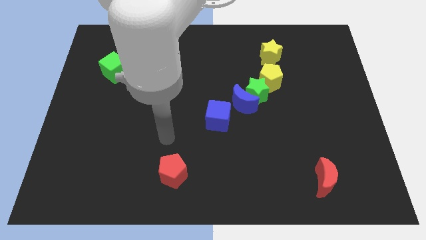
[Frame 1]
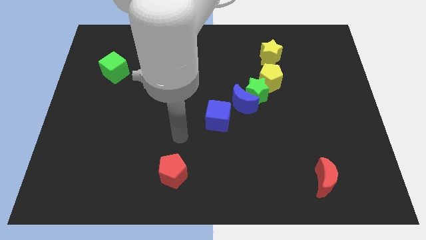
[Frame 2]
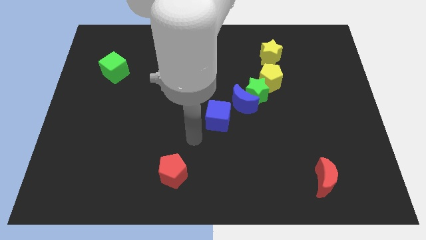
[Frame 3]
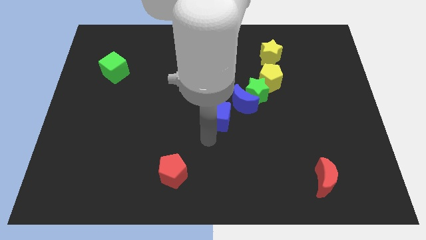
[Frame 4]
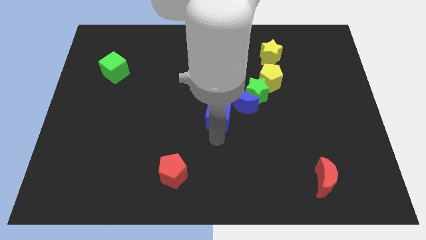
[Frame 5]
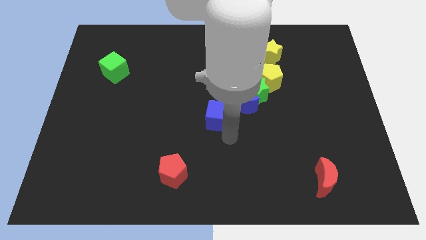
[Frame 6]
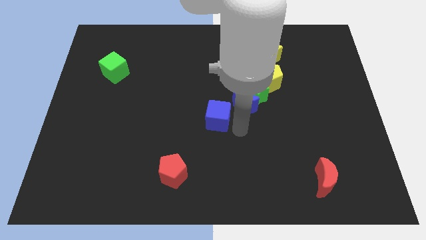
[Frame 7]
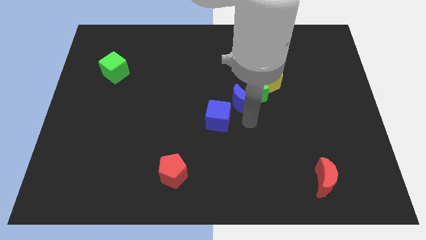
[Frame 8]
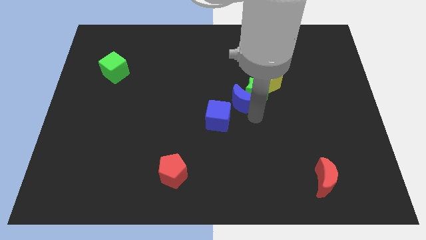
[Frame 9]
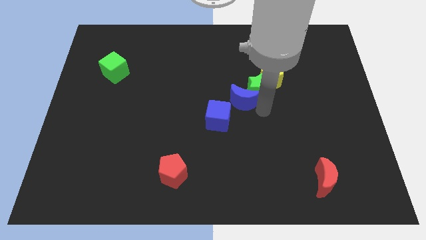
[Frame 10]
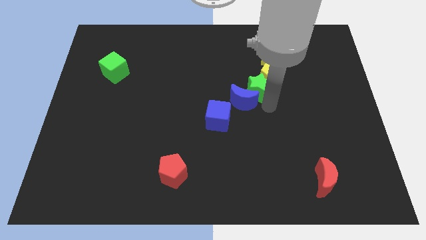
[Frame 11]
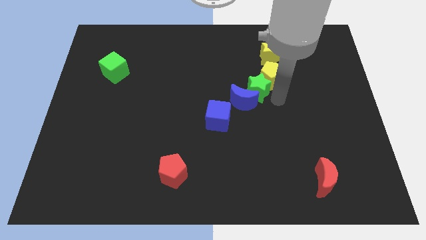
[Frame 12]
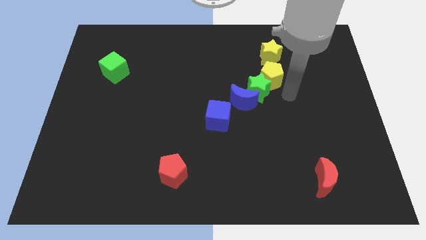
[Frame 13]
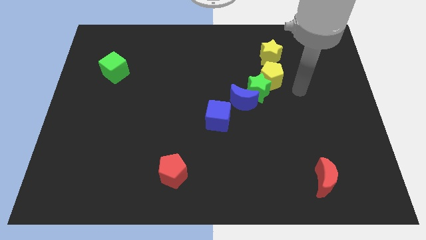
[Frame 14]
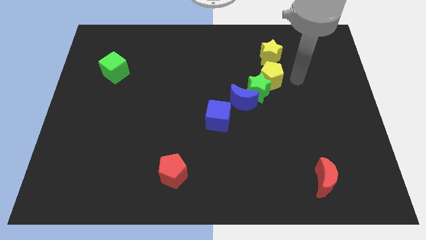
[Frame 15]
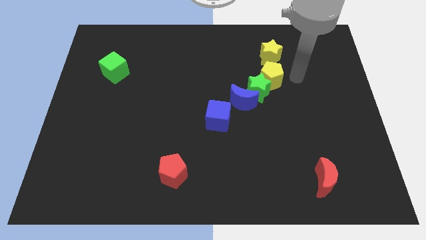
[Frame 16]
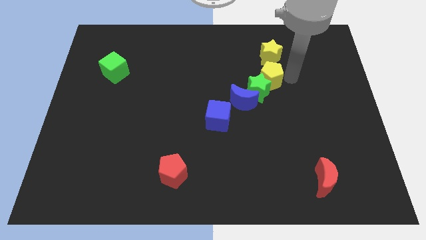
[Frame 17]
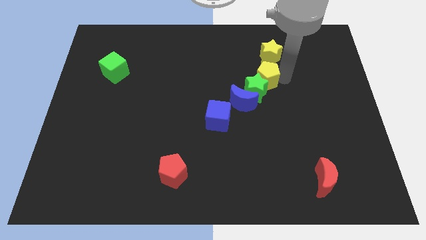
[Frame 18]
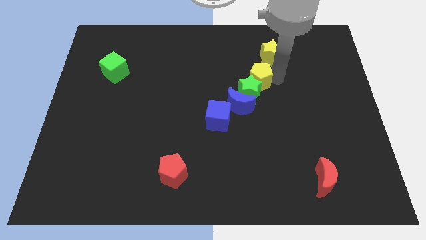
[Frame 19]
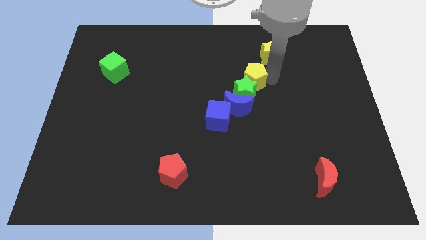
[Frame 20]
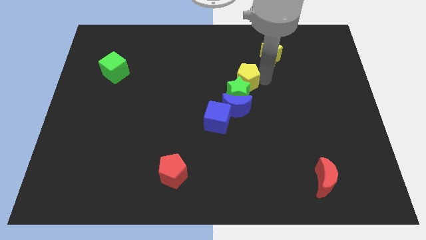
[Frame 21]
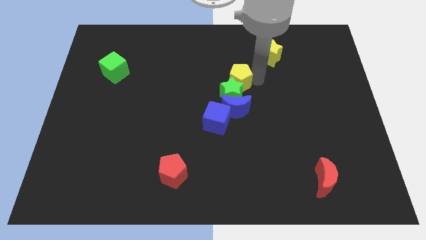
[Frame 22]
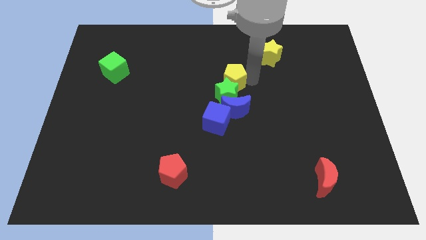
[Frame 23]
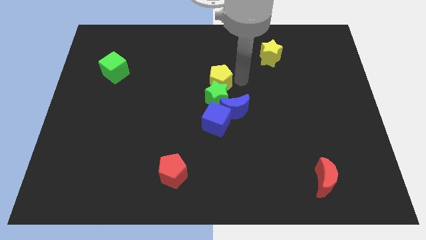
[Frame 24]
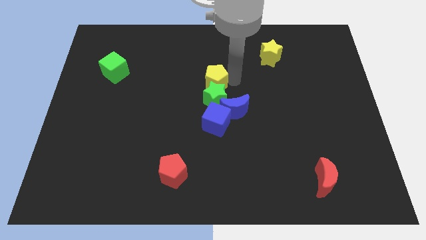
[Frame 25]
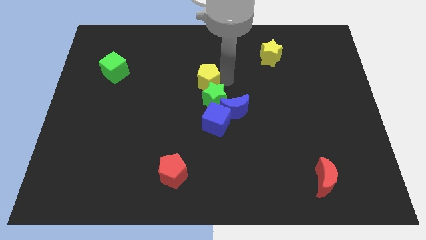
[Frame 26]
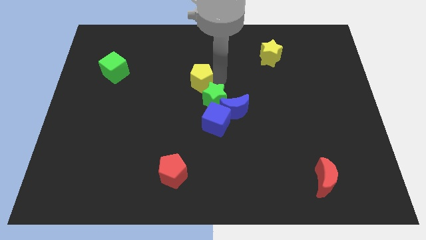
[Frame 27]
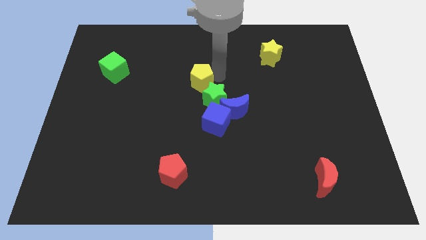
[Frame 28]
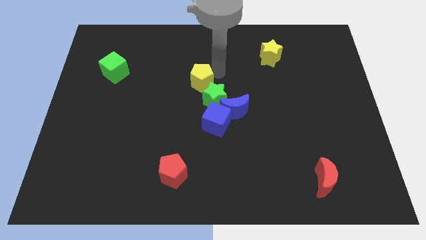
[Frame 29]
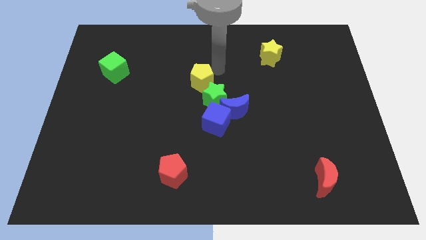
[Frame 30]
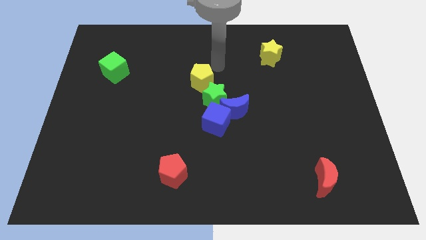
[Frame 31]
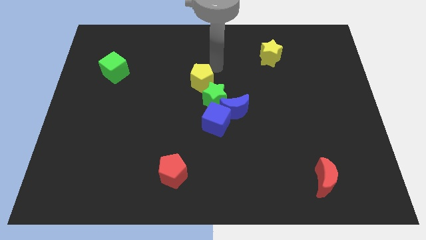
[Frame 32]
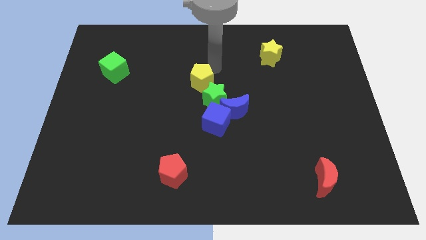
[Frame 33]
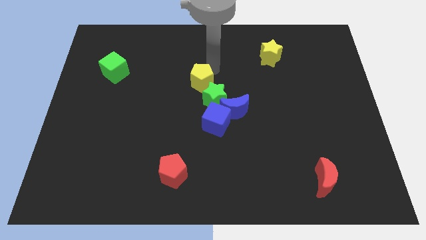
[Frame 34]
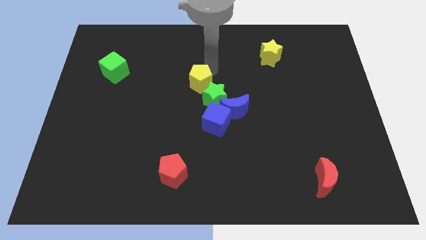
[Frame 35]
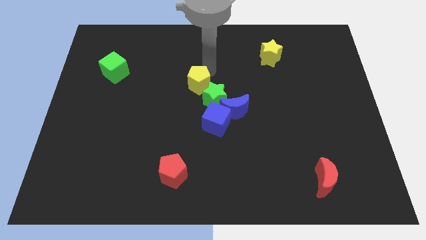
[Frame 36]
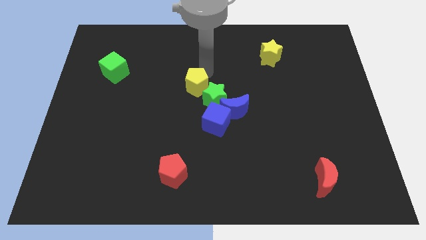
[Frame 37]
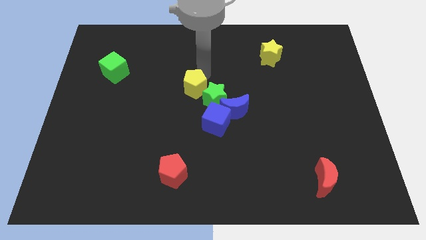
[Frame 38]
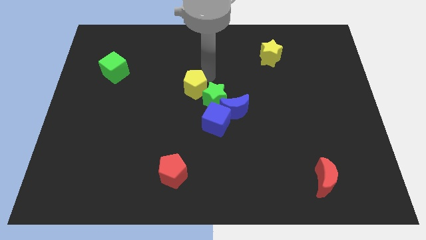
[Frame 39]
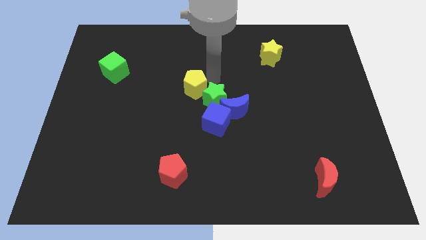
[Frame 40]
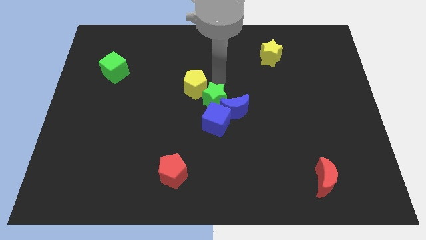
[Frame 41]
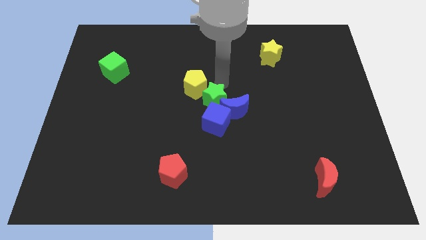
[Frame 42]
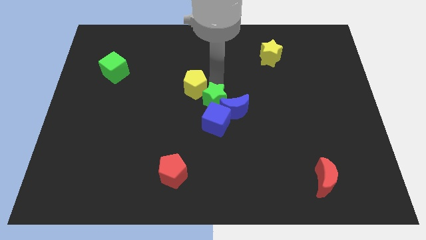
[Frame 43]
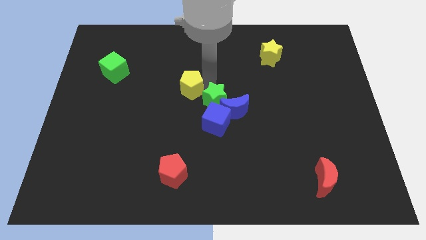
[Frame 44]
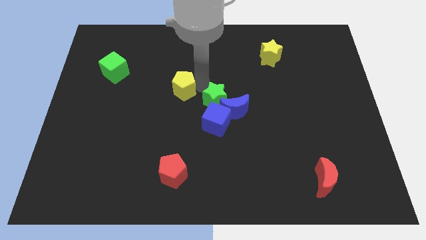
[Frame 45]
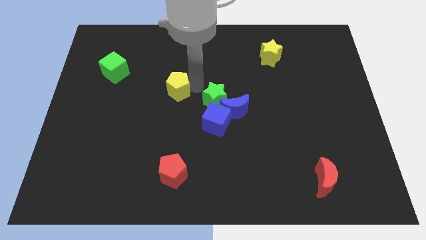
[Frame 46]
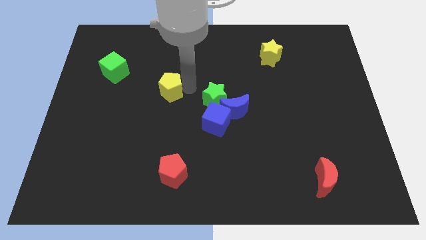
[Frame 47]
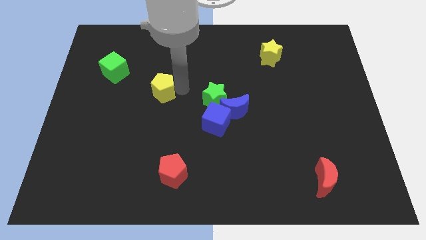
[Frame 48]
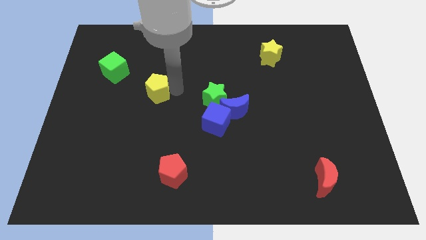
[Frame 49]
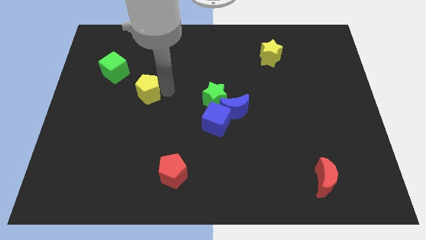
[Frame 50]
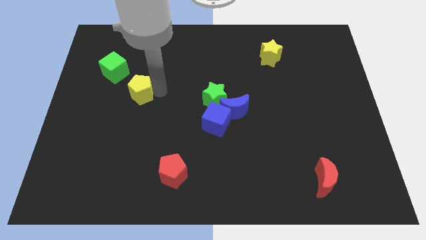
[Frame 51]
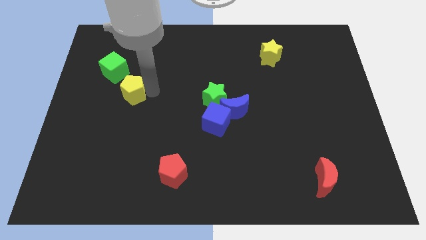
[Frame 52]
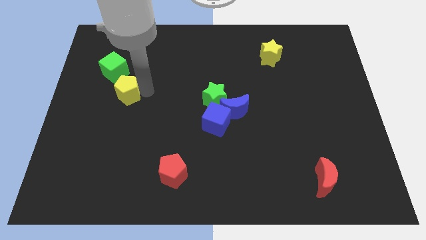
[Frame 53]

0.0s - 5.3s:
move the yellow pentagon below the green cube

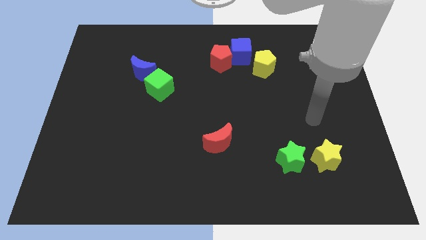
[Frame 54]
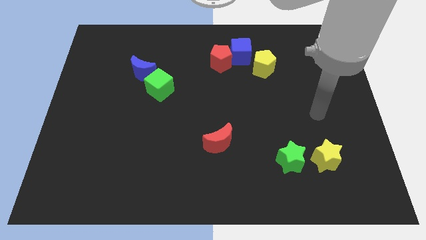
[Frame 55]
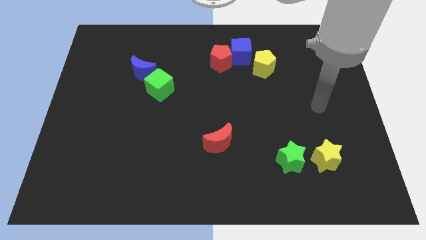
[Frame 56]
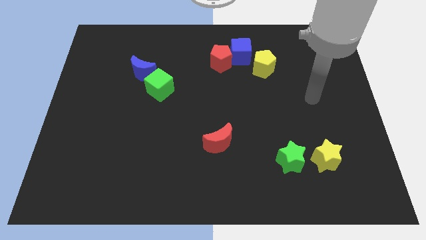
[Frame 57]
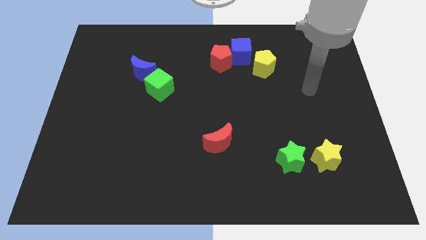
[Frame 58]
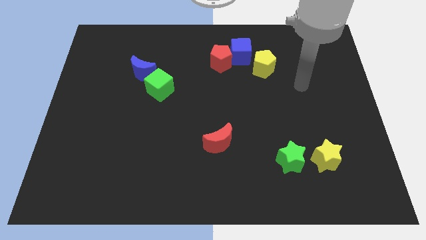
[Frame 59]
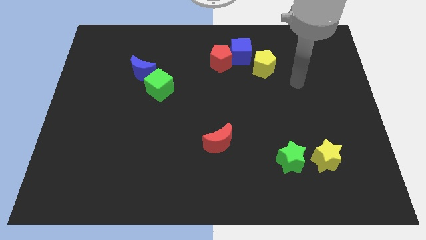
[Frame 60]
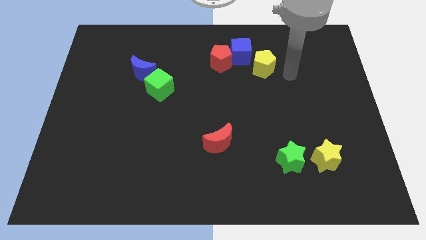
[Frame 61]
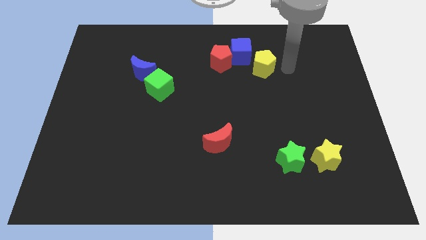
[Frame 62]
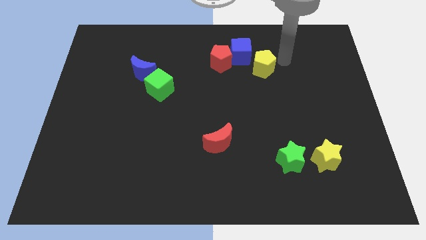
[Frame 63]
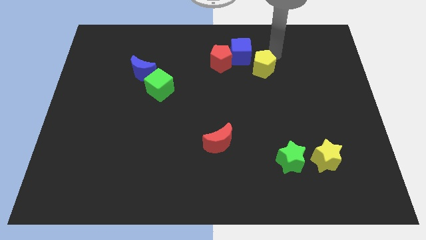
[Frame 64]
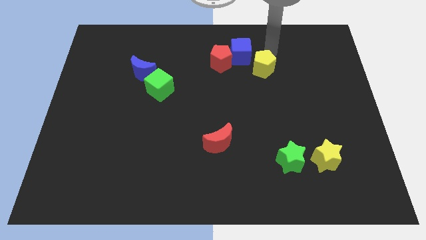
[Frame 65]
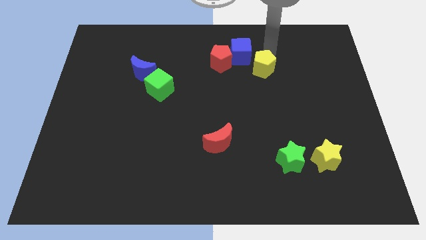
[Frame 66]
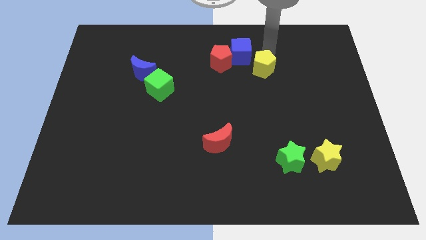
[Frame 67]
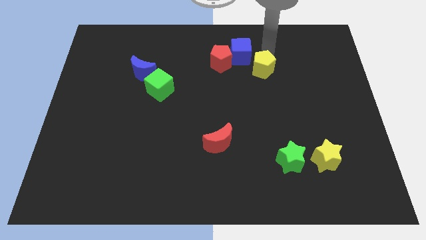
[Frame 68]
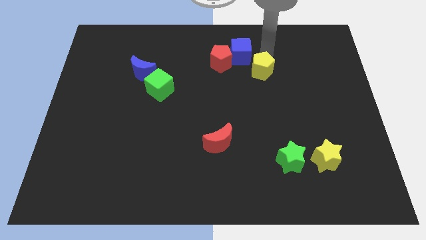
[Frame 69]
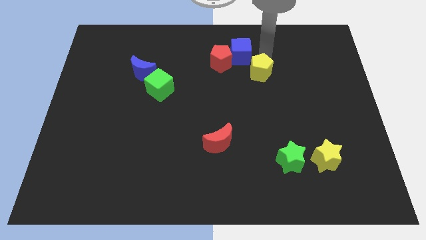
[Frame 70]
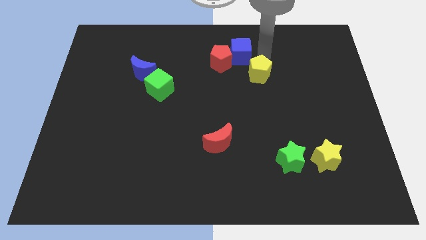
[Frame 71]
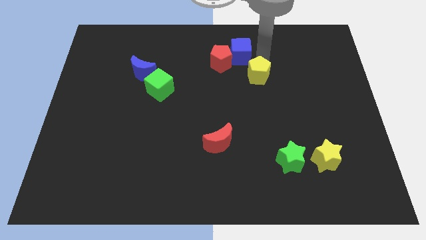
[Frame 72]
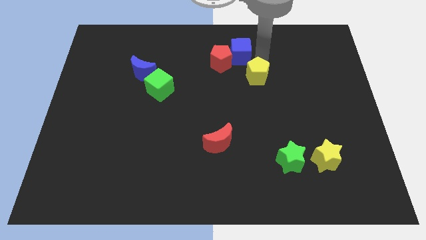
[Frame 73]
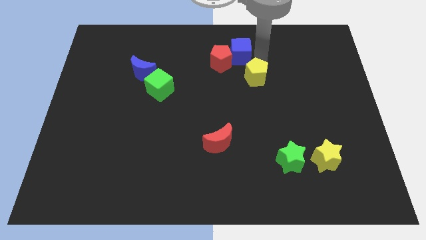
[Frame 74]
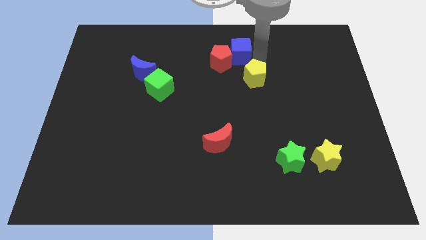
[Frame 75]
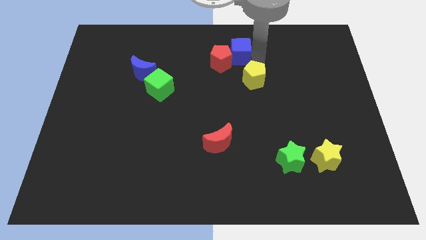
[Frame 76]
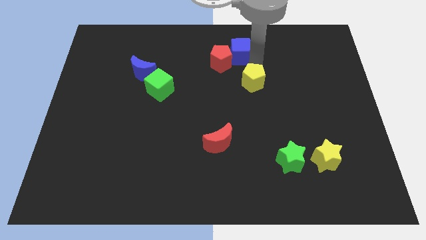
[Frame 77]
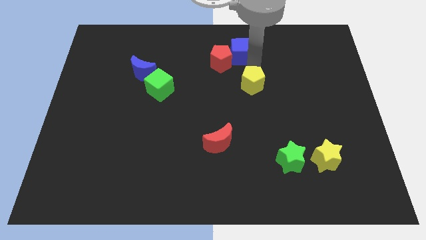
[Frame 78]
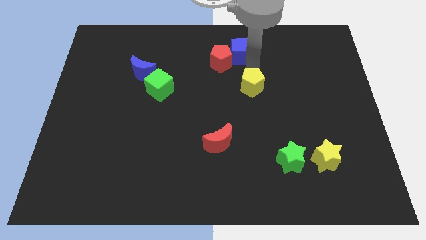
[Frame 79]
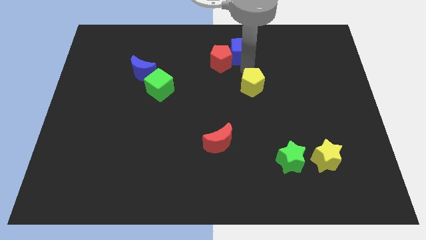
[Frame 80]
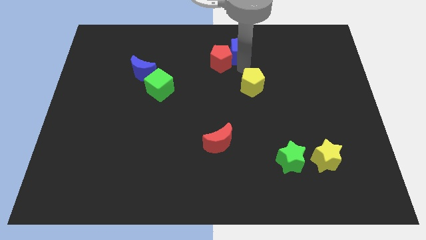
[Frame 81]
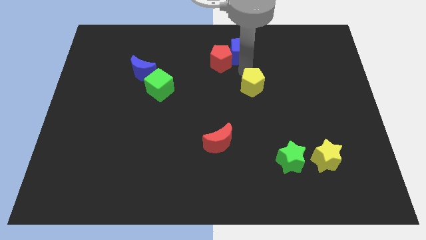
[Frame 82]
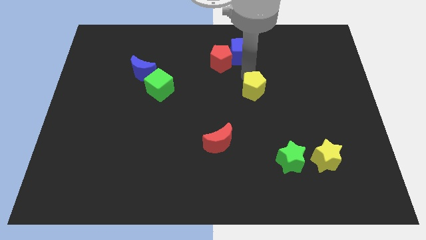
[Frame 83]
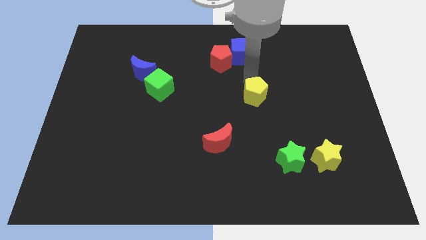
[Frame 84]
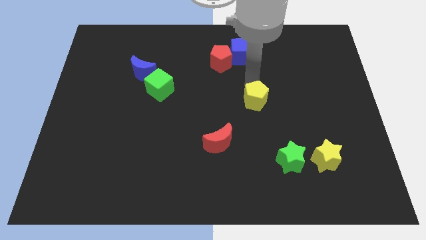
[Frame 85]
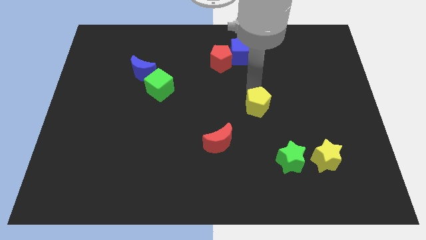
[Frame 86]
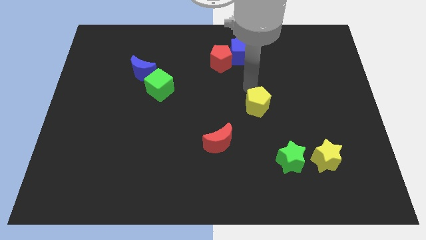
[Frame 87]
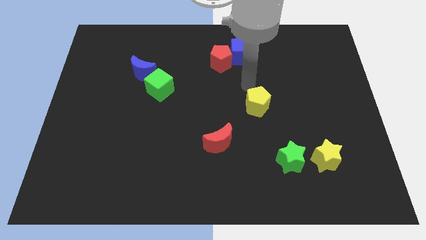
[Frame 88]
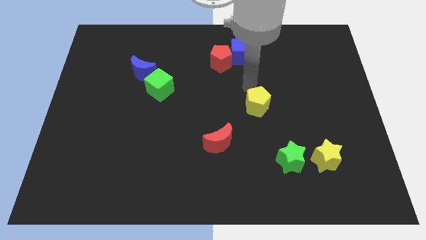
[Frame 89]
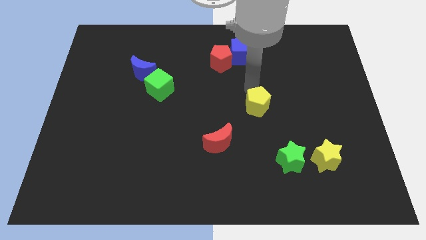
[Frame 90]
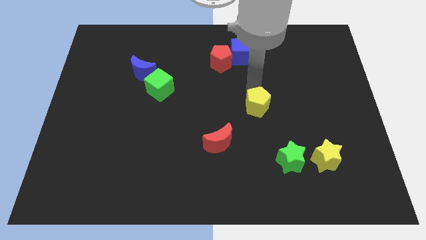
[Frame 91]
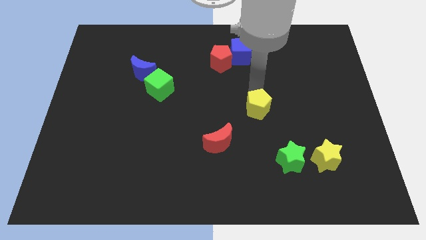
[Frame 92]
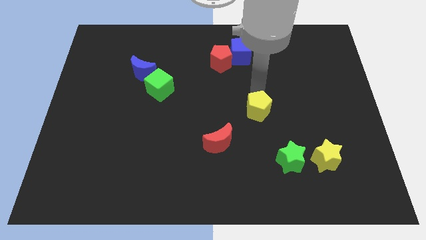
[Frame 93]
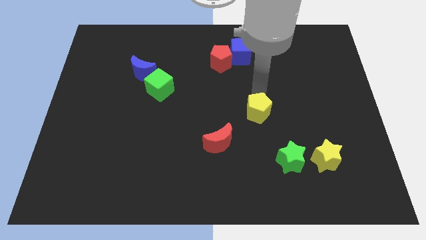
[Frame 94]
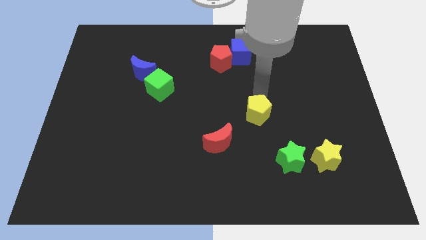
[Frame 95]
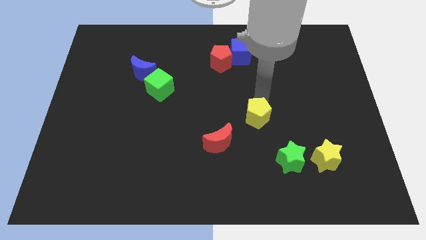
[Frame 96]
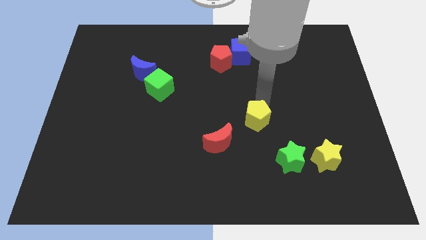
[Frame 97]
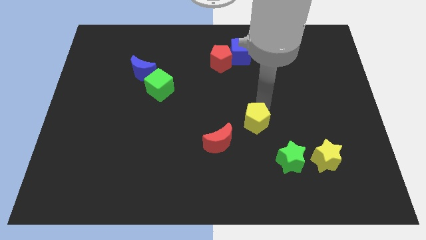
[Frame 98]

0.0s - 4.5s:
slide the yellow pentagon to the top left of the green star
